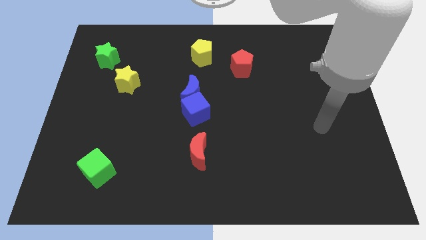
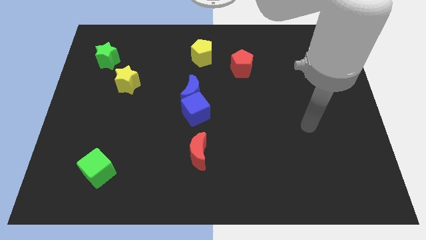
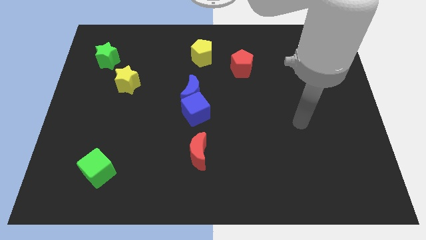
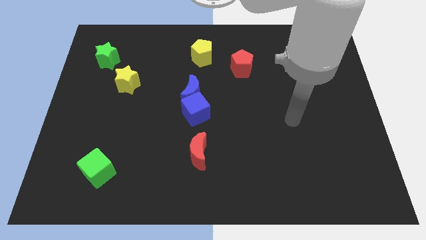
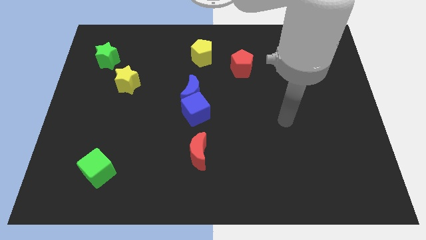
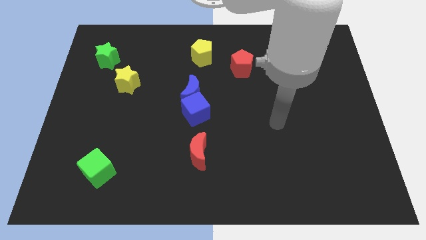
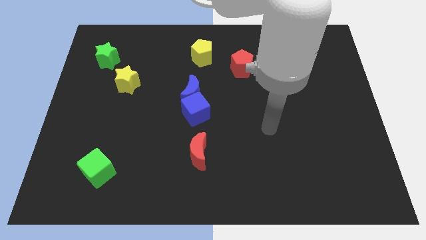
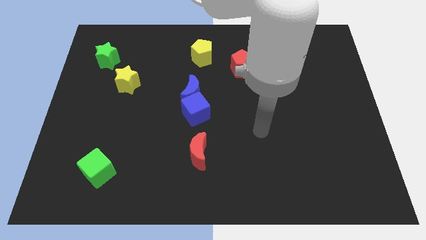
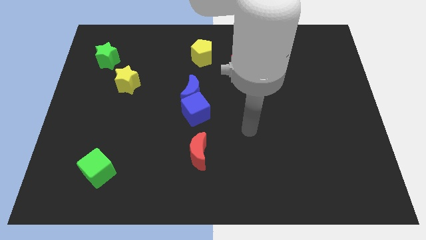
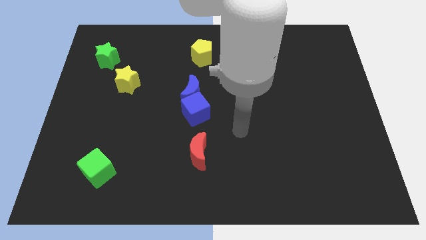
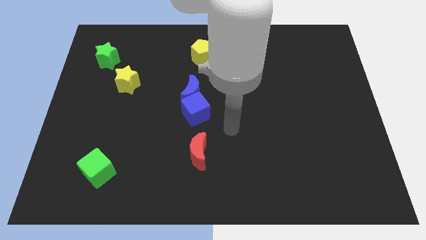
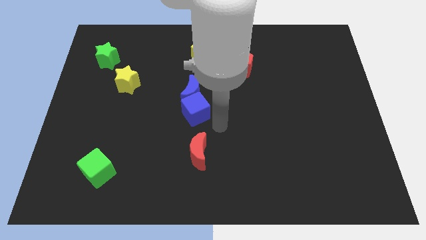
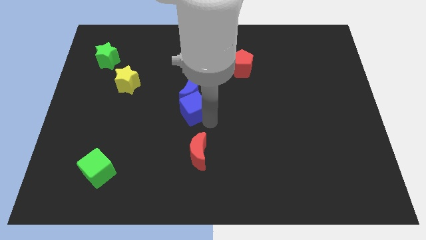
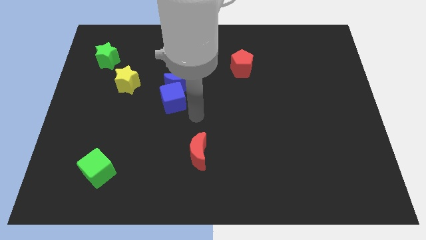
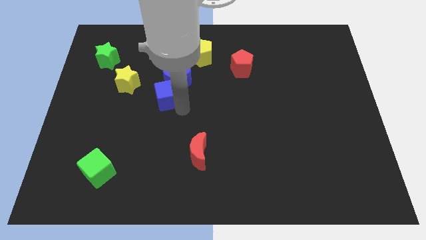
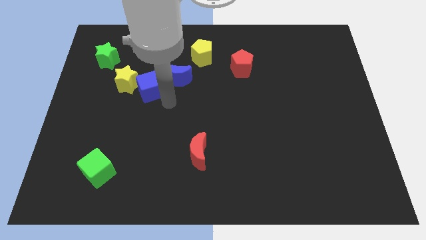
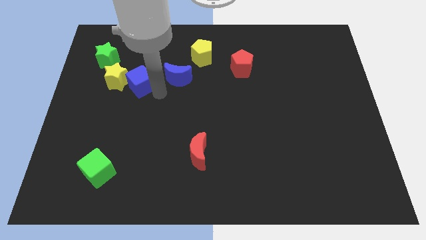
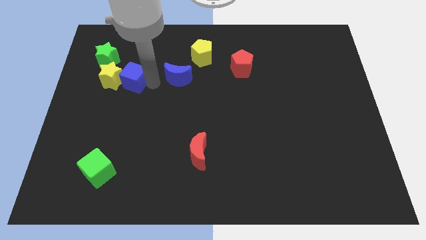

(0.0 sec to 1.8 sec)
pull the blue moon apart from the blue cube

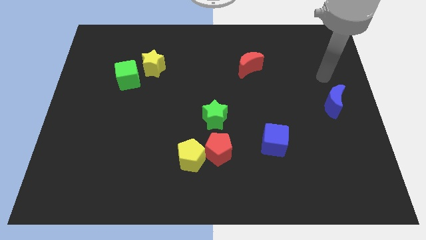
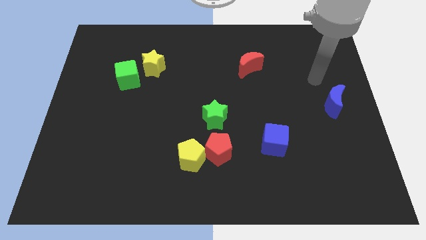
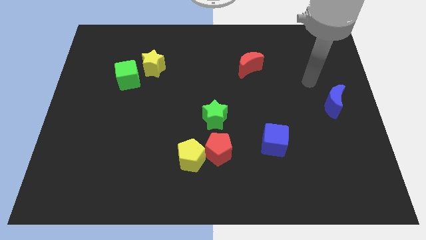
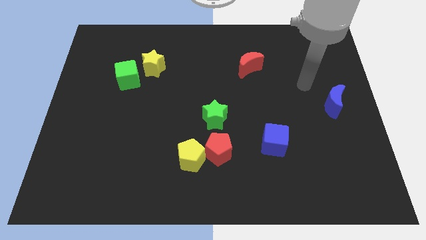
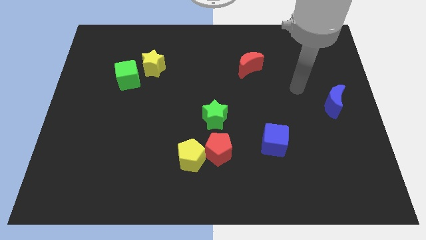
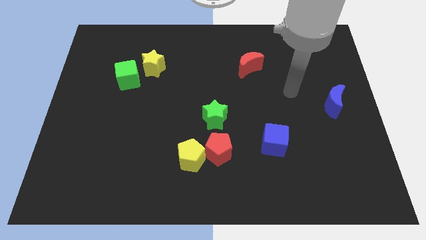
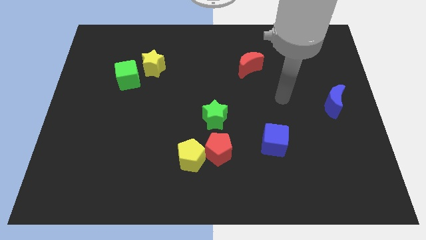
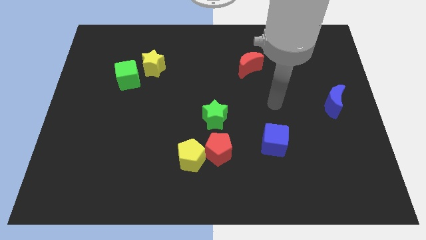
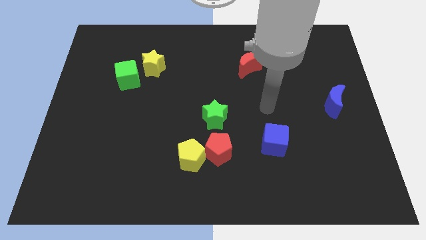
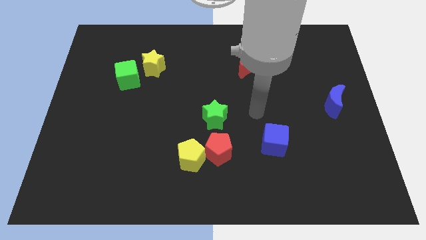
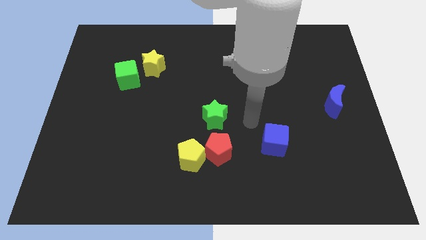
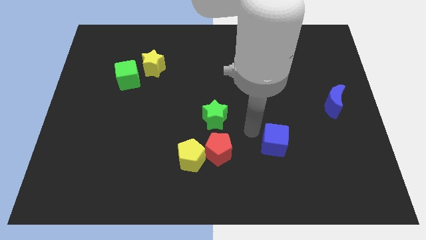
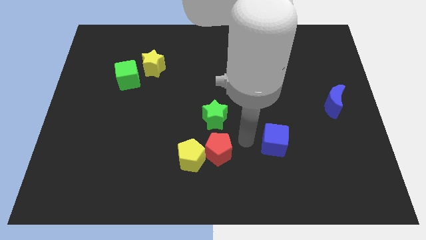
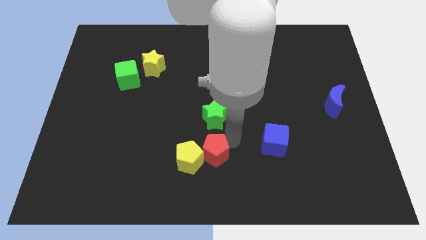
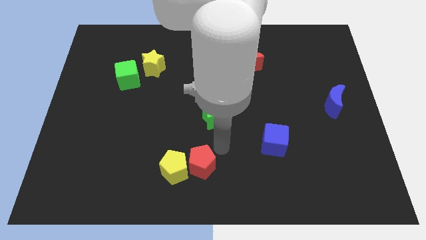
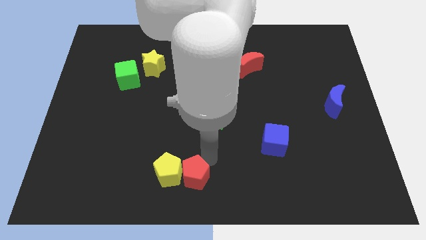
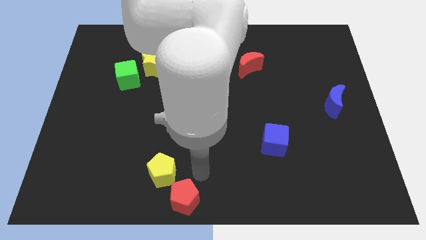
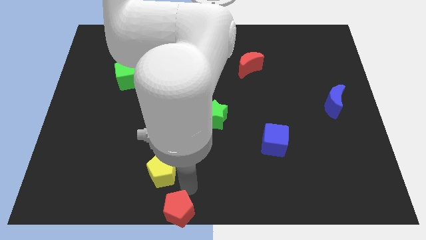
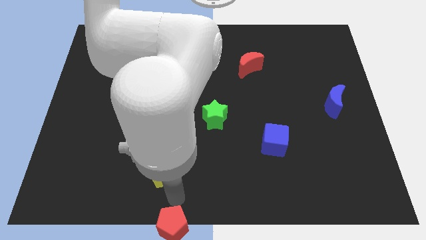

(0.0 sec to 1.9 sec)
pull the yellow pentagon apart from the red pentagon

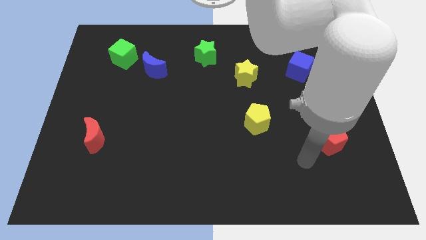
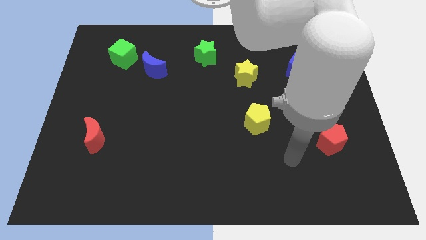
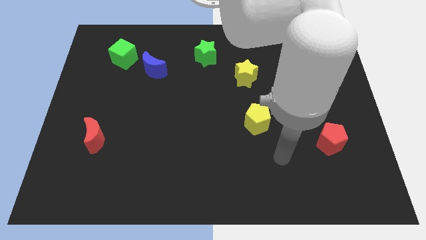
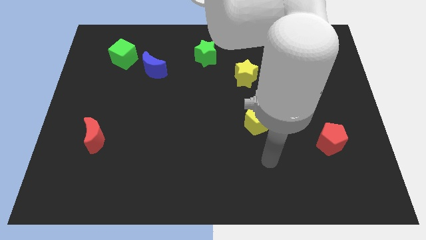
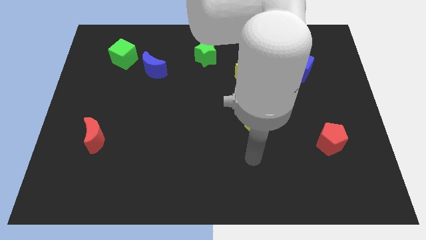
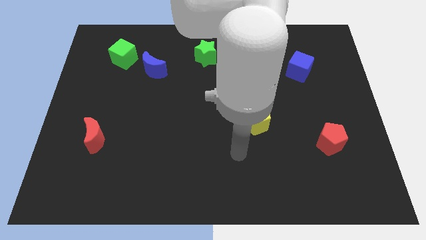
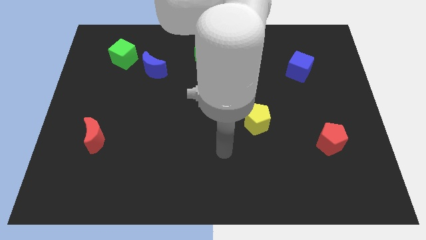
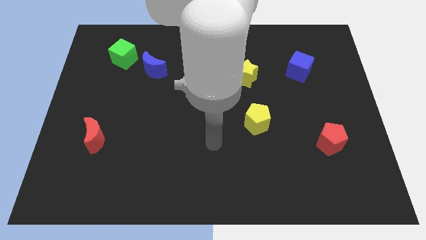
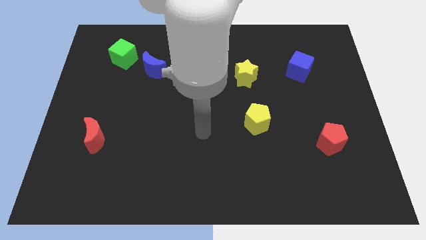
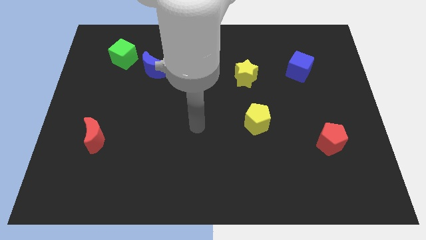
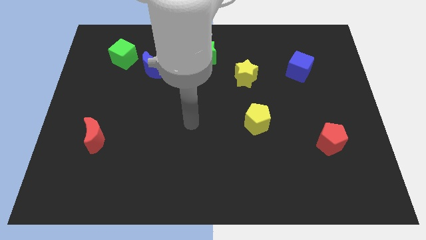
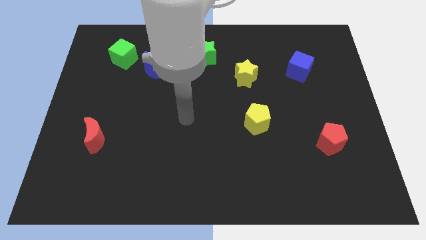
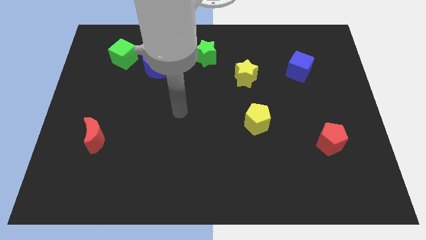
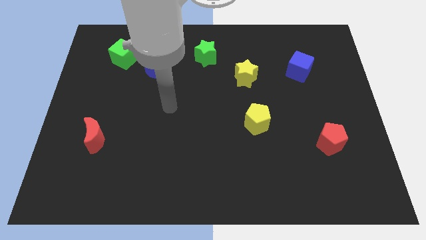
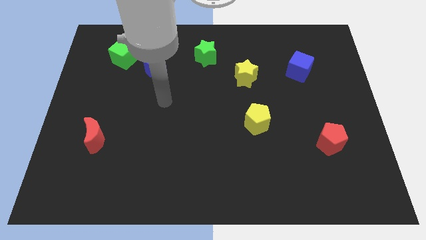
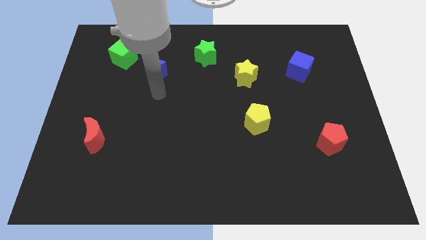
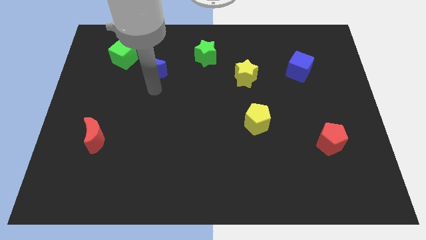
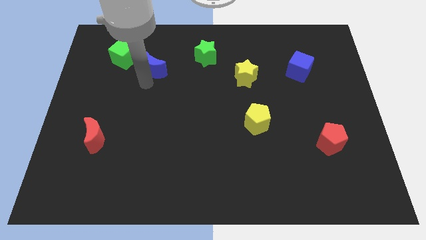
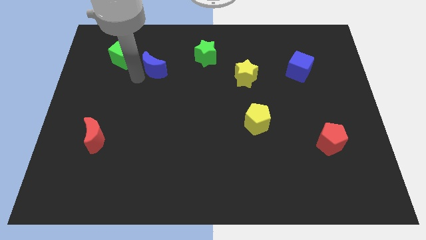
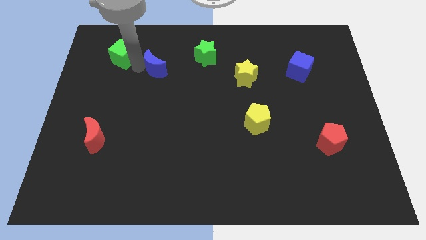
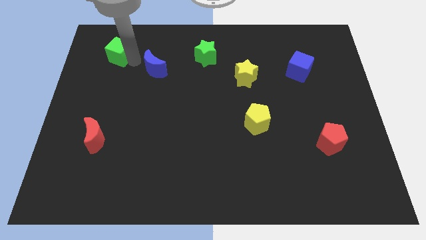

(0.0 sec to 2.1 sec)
separate the blue moon from the green cube

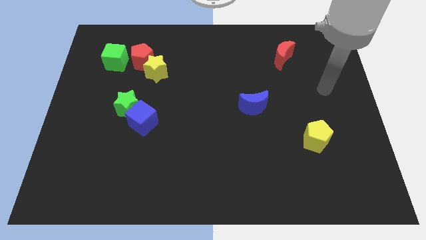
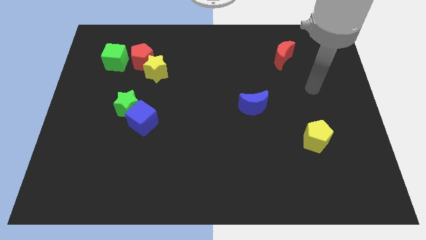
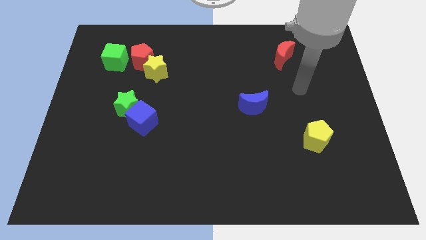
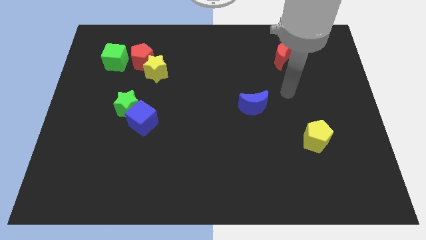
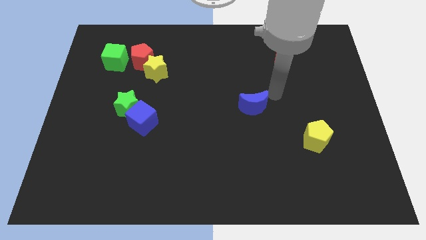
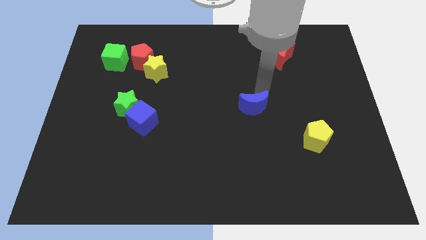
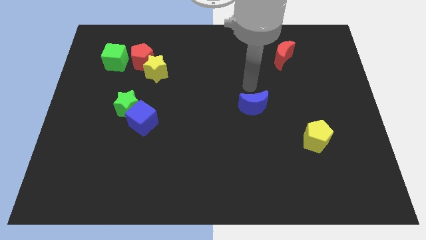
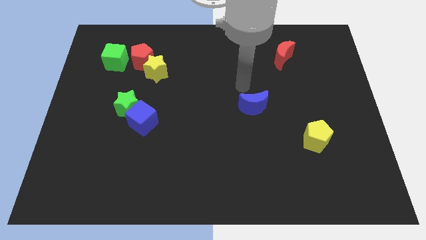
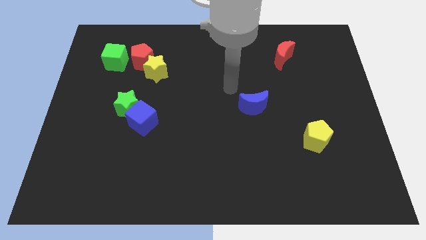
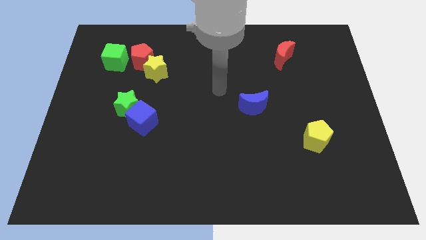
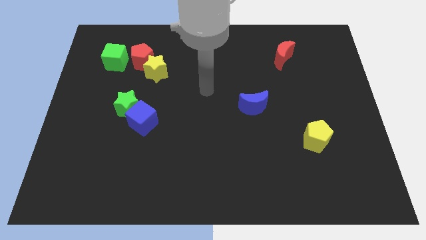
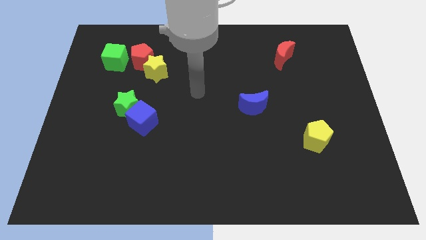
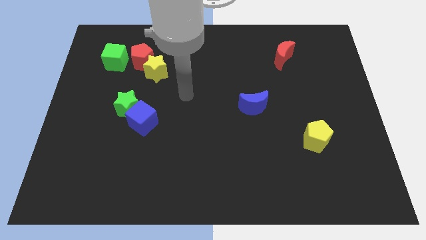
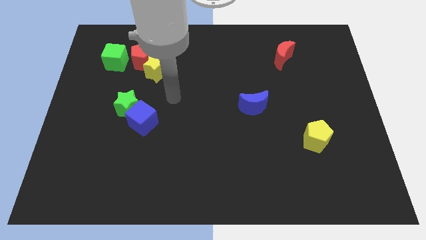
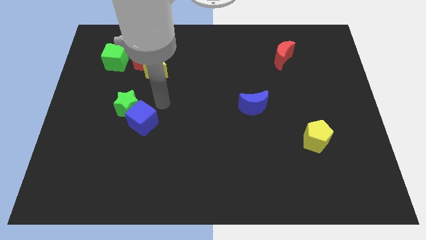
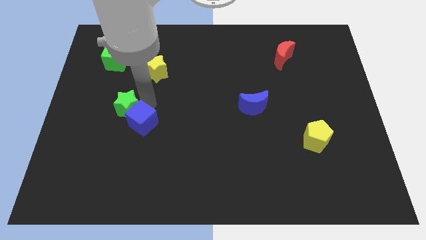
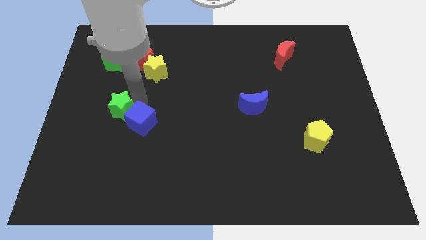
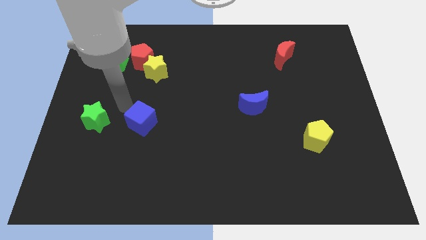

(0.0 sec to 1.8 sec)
pull the blue cube apart from the green star

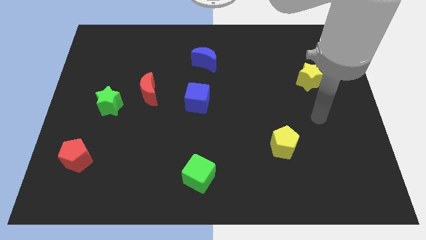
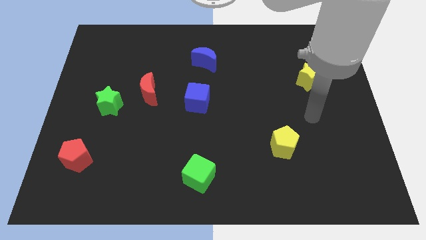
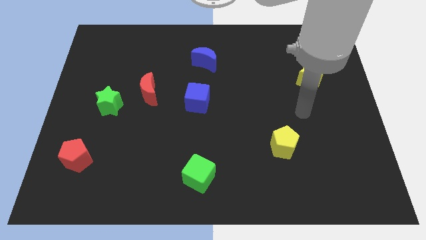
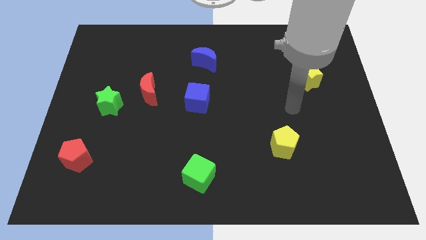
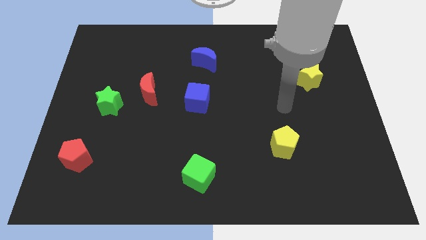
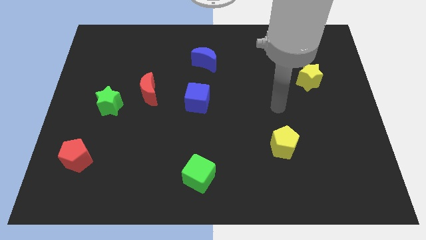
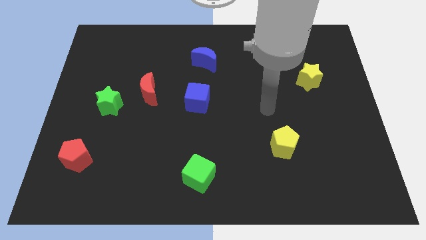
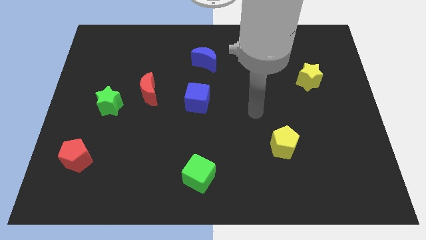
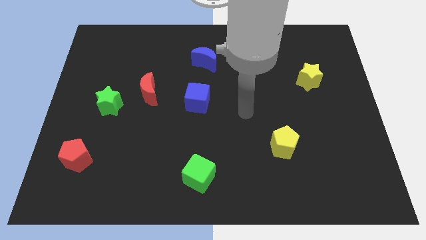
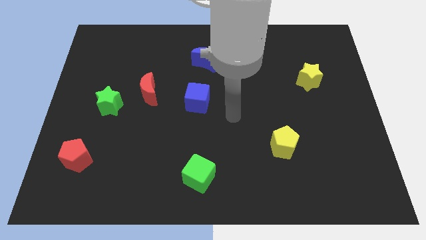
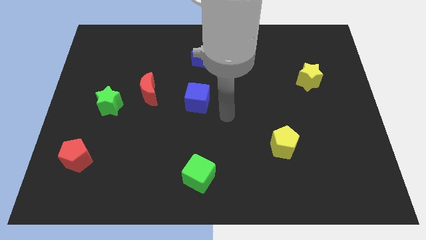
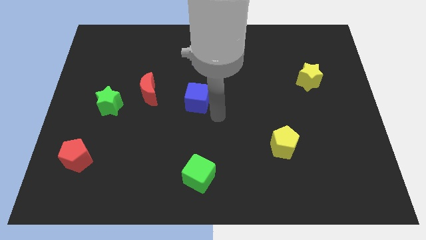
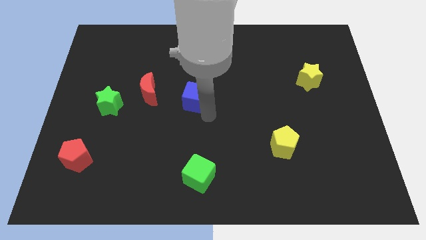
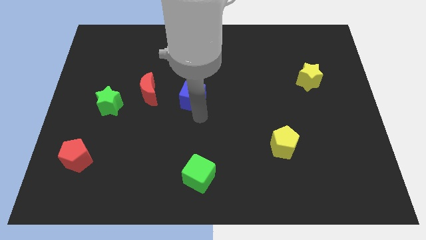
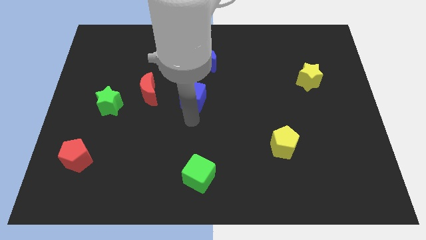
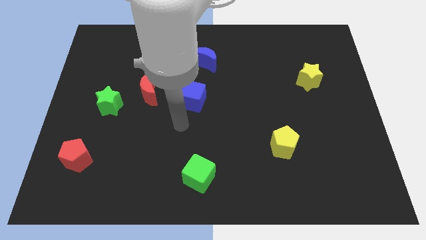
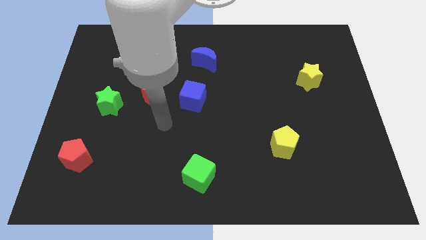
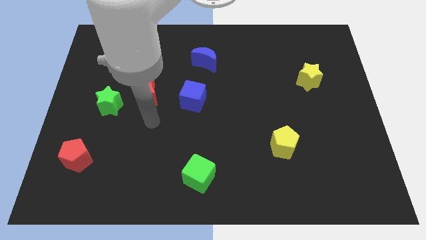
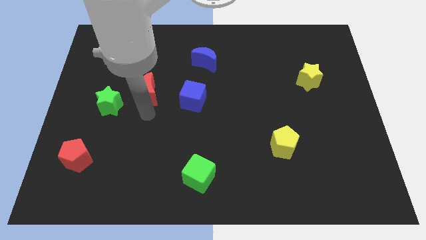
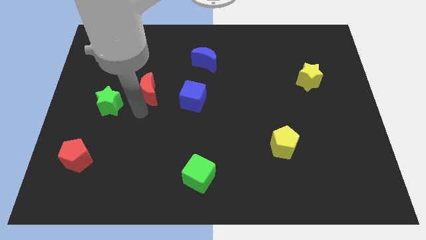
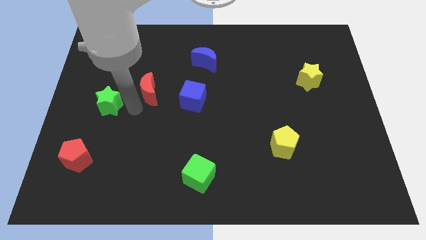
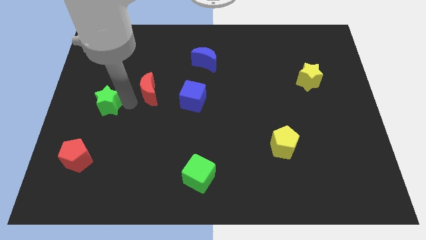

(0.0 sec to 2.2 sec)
move the red moon away from the green star
